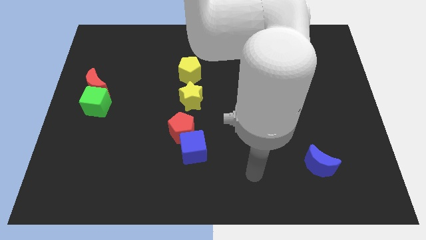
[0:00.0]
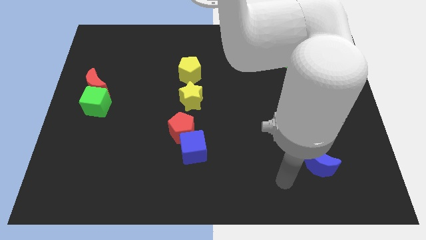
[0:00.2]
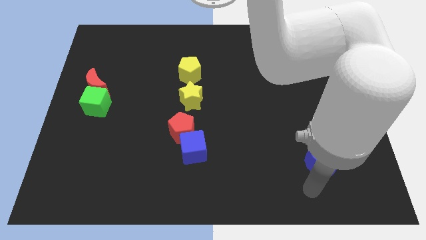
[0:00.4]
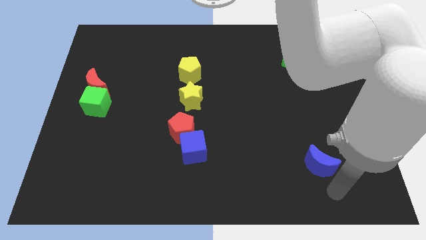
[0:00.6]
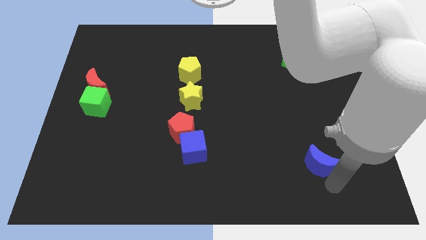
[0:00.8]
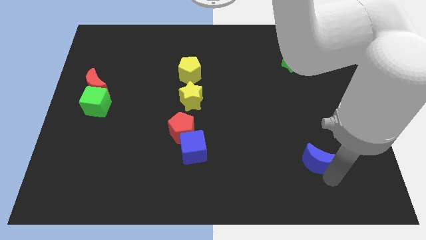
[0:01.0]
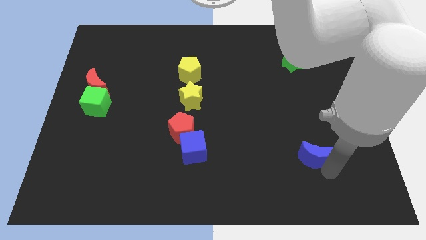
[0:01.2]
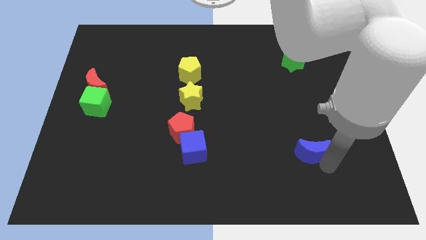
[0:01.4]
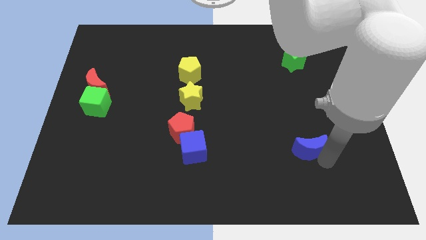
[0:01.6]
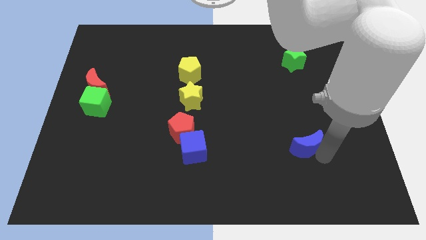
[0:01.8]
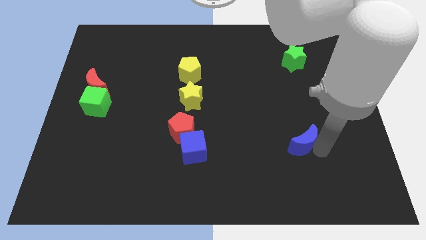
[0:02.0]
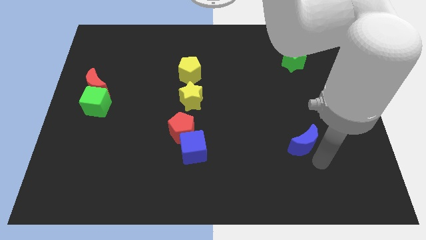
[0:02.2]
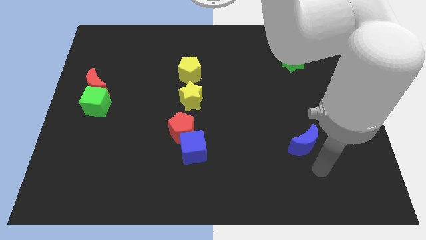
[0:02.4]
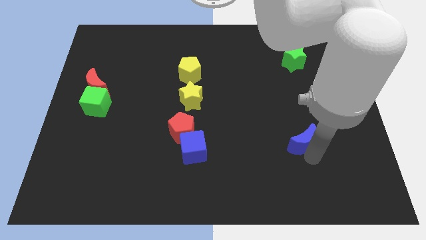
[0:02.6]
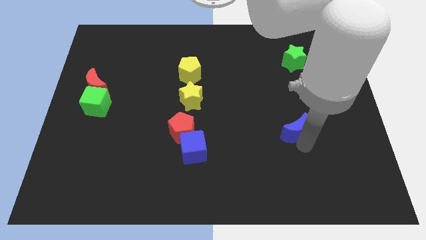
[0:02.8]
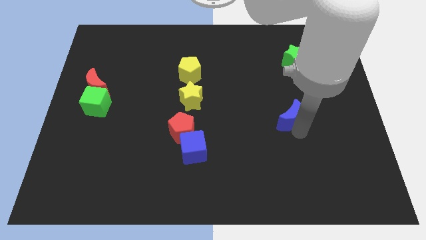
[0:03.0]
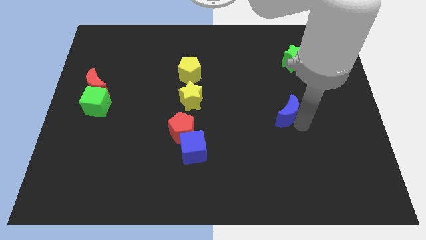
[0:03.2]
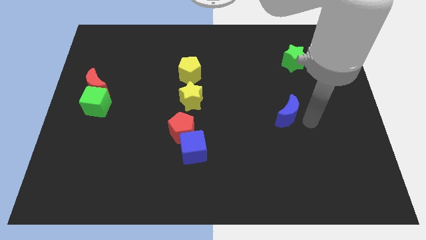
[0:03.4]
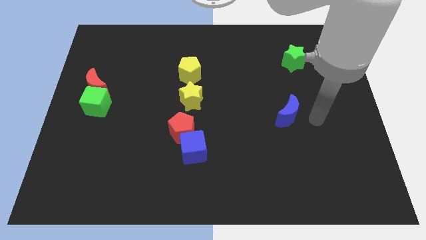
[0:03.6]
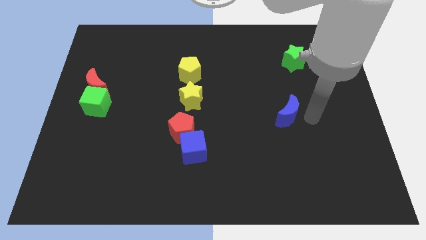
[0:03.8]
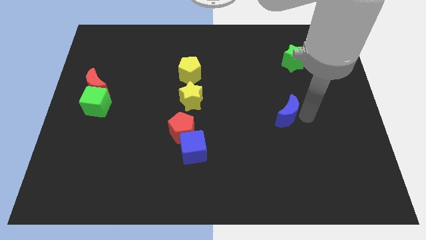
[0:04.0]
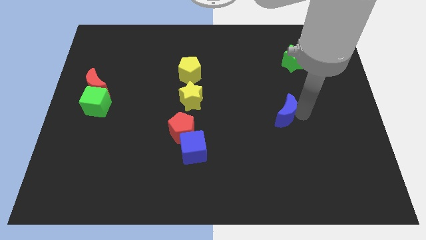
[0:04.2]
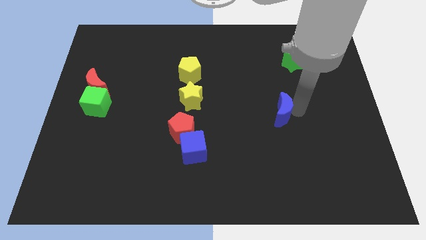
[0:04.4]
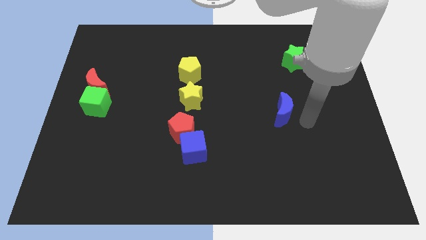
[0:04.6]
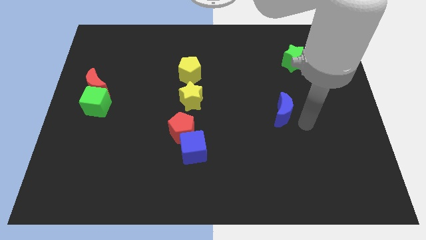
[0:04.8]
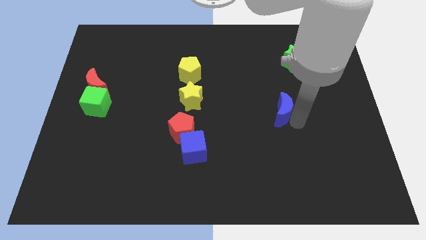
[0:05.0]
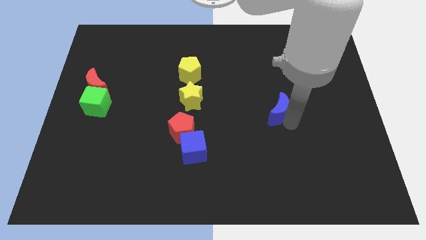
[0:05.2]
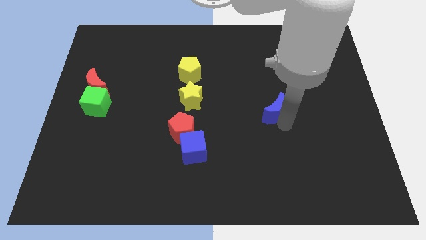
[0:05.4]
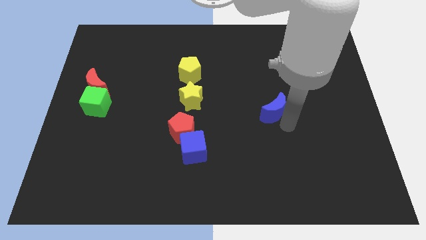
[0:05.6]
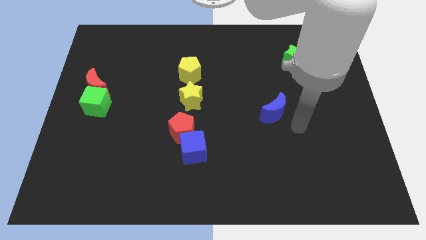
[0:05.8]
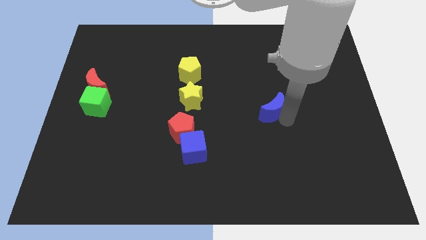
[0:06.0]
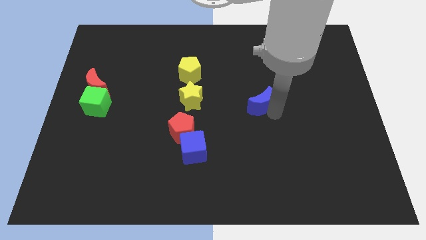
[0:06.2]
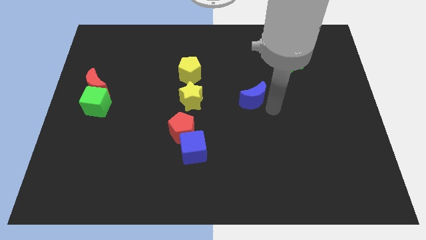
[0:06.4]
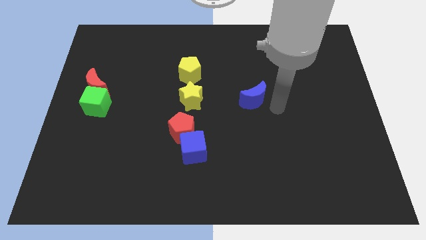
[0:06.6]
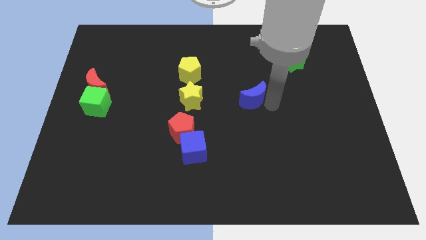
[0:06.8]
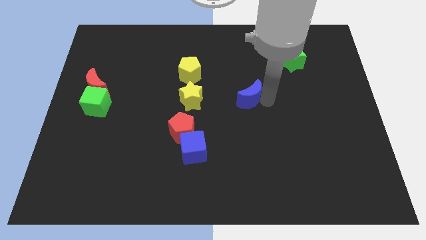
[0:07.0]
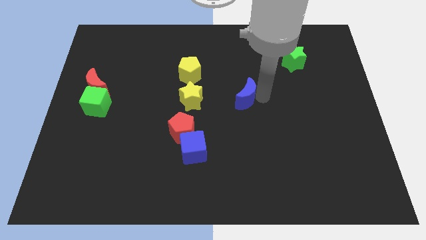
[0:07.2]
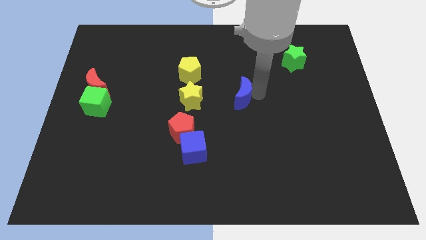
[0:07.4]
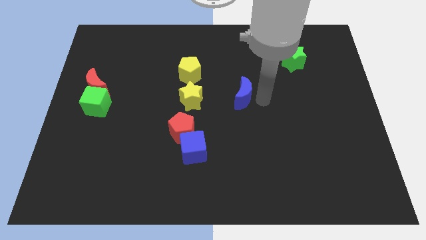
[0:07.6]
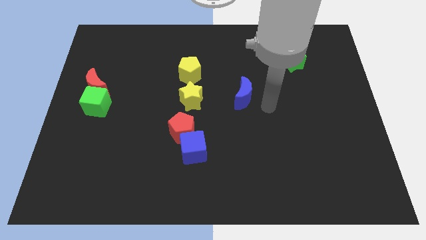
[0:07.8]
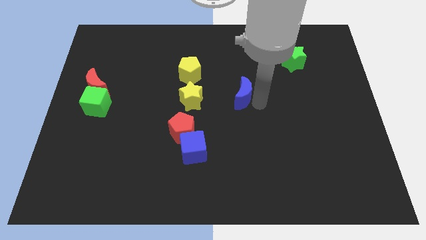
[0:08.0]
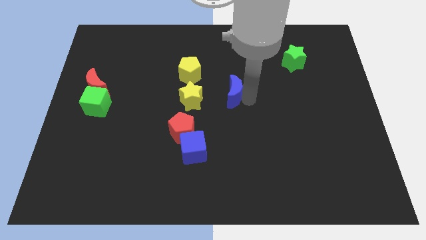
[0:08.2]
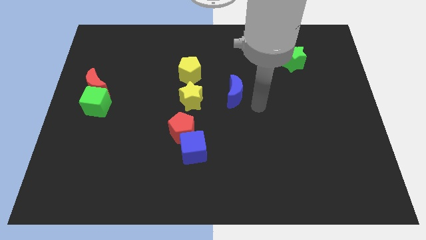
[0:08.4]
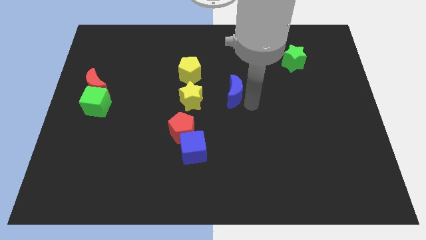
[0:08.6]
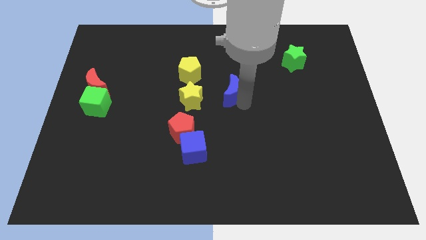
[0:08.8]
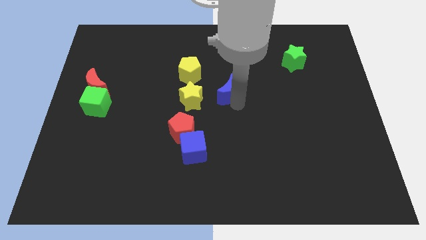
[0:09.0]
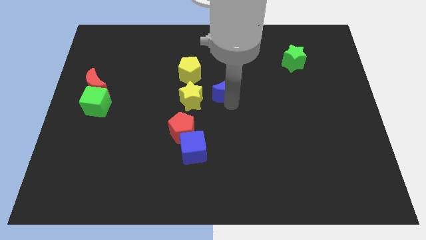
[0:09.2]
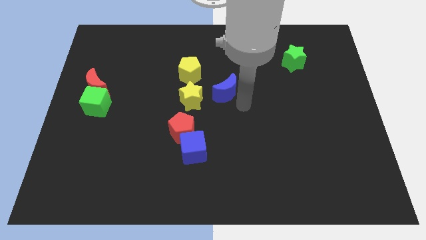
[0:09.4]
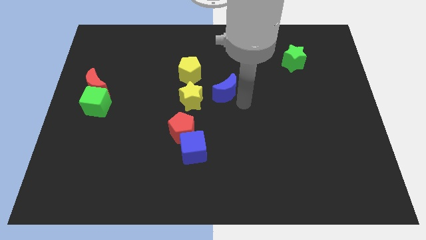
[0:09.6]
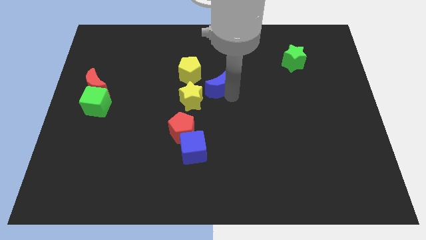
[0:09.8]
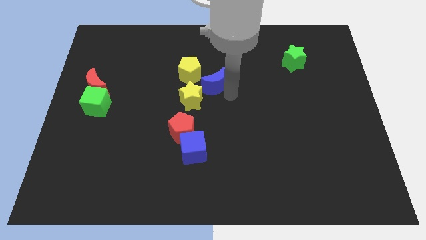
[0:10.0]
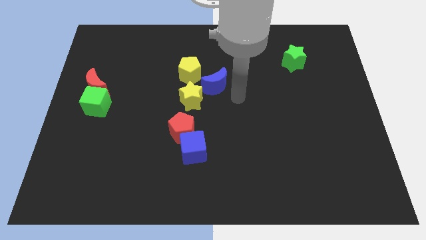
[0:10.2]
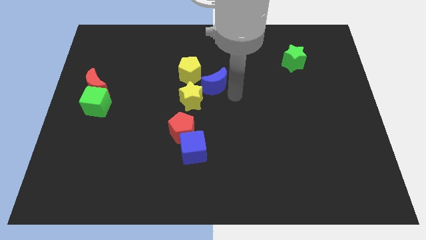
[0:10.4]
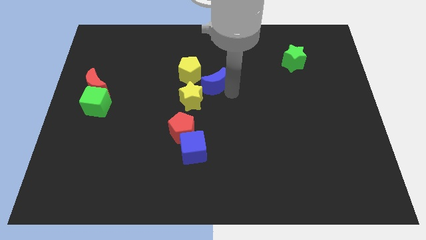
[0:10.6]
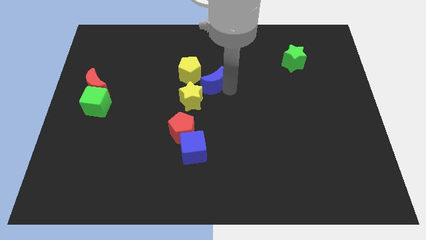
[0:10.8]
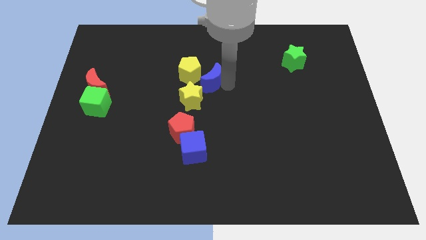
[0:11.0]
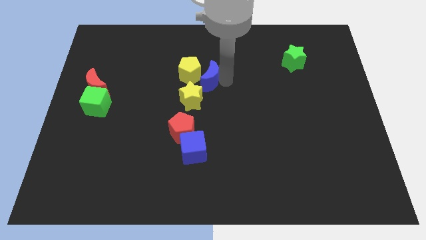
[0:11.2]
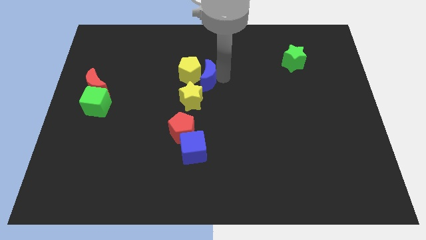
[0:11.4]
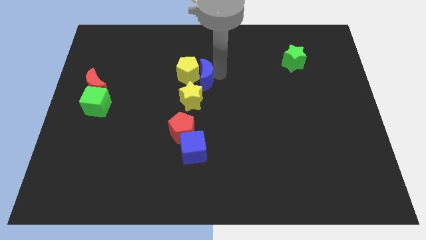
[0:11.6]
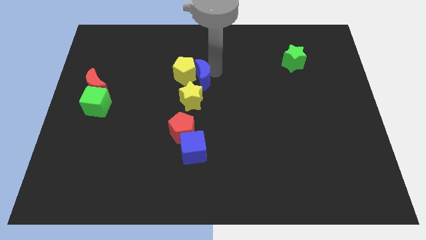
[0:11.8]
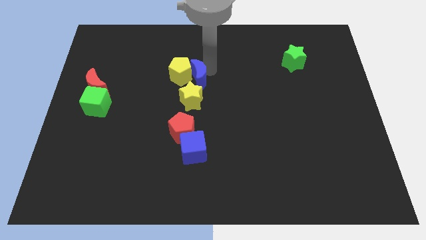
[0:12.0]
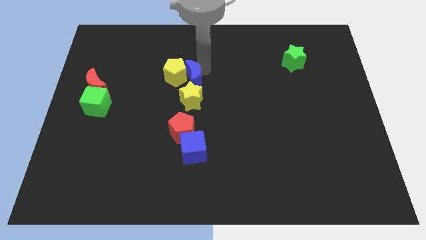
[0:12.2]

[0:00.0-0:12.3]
put the blue moon to the top of the red pentagon

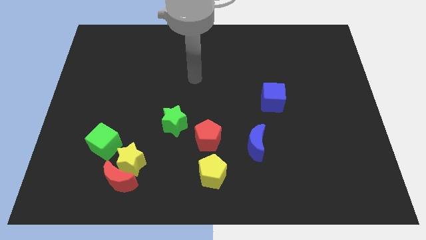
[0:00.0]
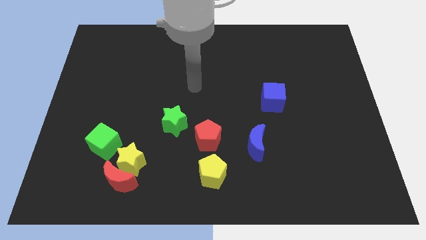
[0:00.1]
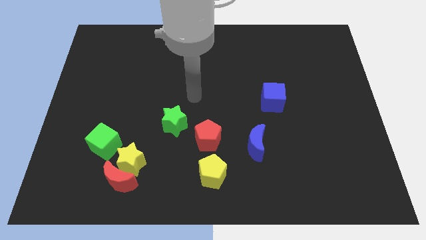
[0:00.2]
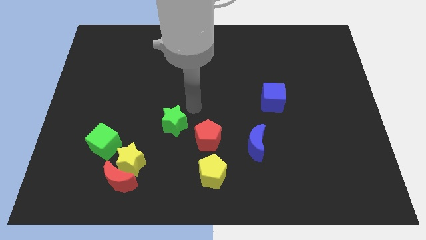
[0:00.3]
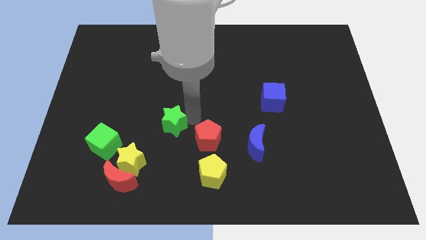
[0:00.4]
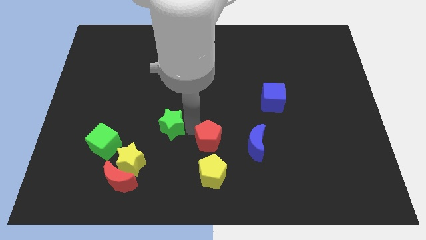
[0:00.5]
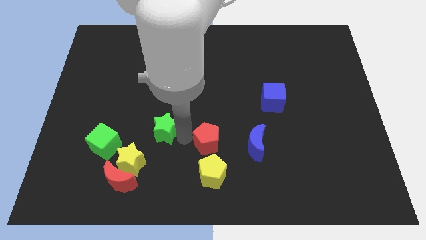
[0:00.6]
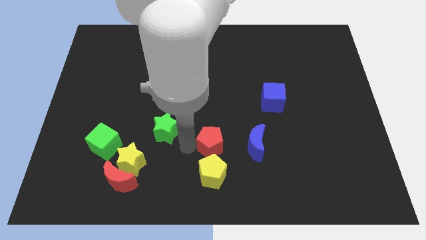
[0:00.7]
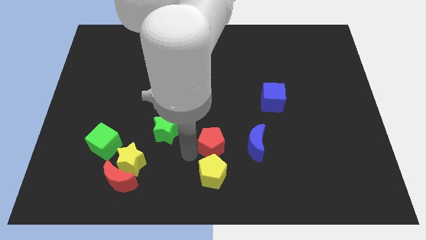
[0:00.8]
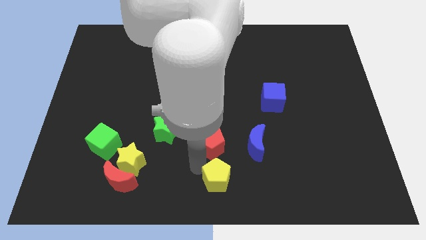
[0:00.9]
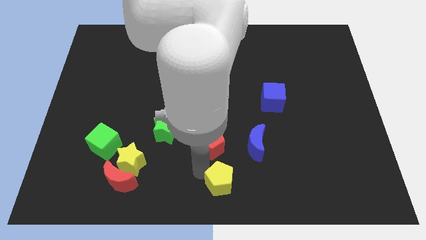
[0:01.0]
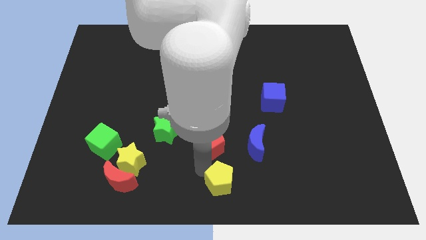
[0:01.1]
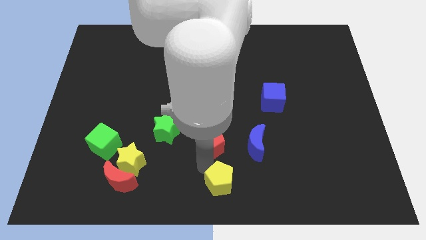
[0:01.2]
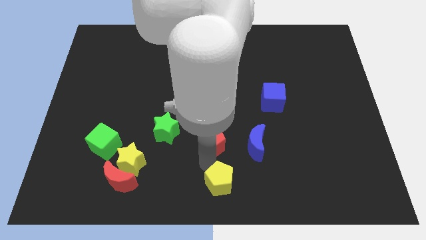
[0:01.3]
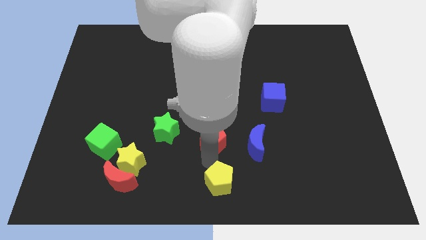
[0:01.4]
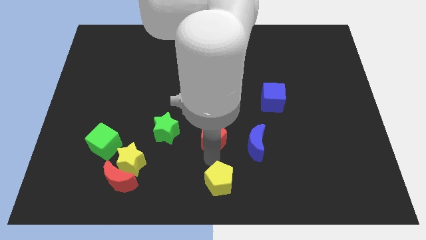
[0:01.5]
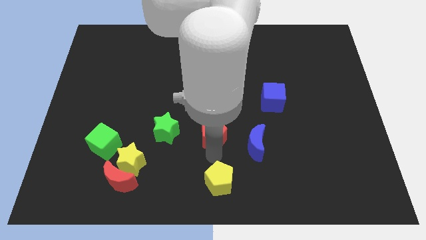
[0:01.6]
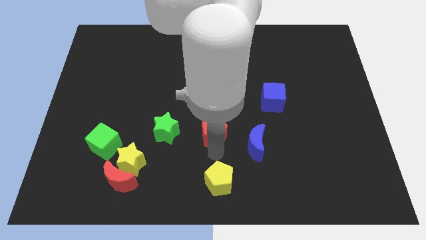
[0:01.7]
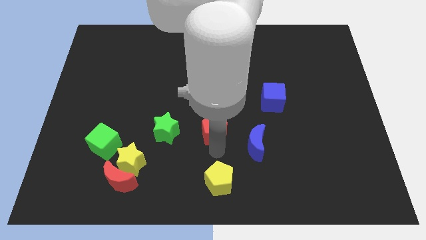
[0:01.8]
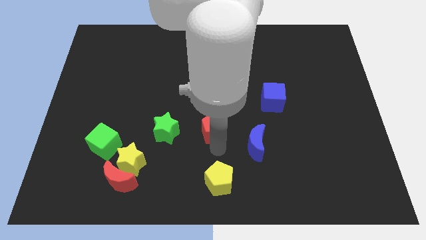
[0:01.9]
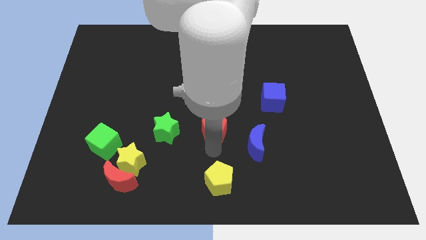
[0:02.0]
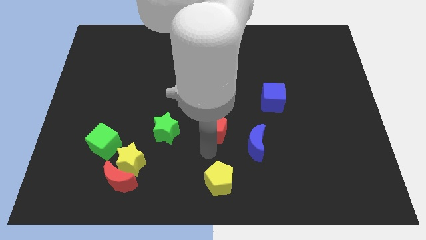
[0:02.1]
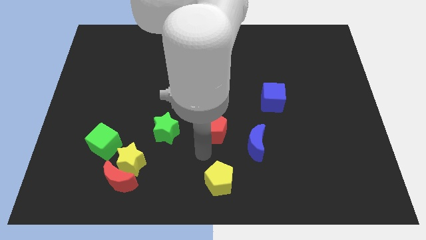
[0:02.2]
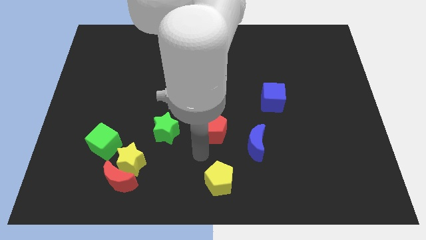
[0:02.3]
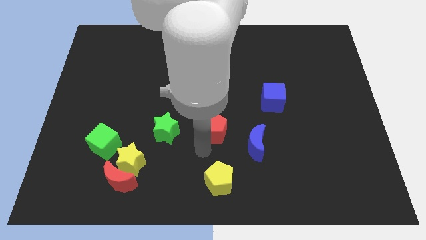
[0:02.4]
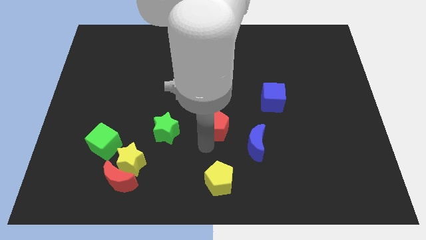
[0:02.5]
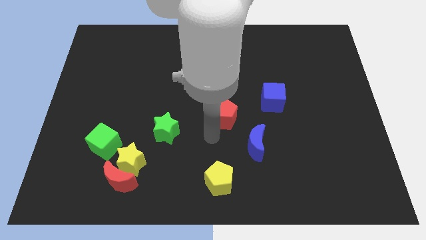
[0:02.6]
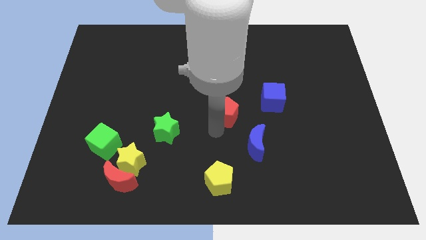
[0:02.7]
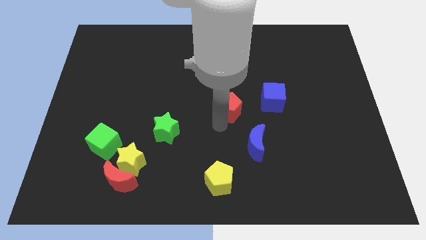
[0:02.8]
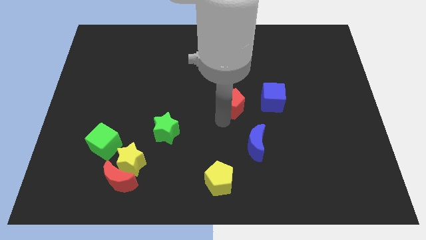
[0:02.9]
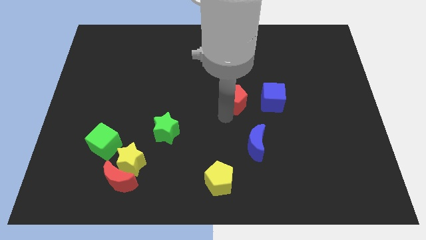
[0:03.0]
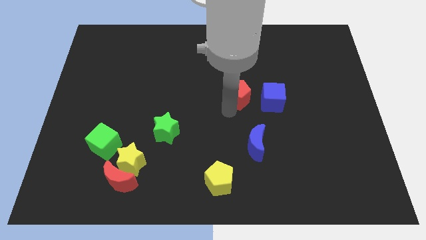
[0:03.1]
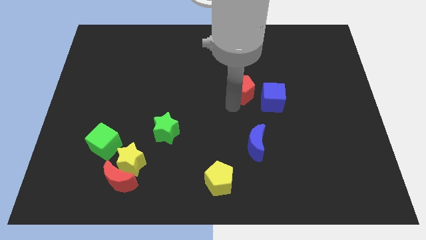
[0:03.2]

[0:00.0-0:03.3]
put the red pentagon diagonally up and to the left of the blue cube
